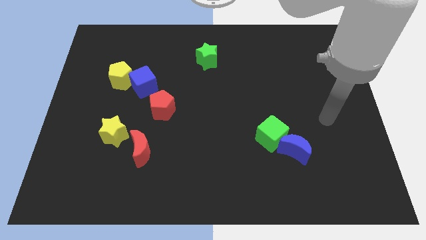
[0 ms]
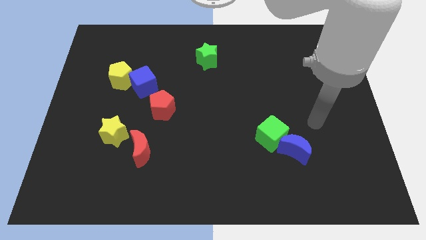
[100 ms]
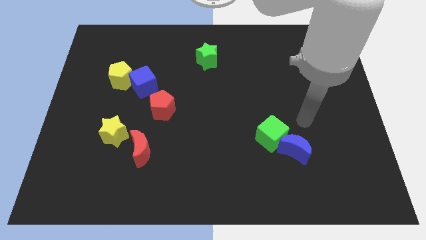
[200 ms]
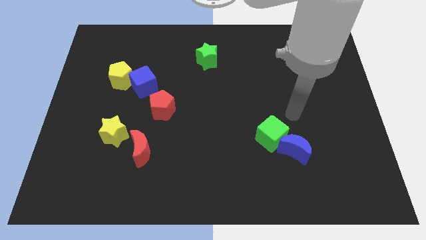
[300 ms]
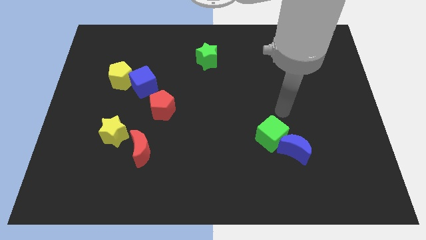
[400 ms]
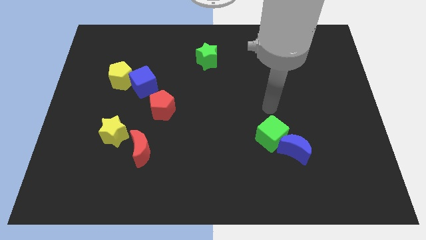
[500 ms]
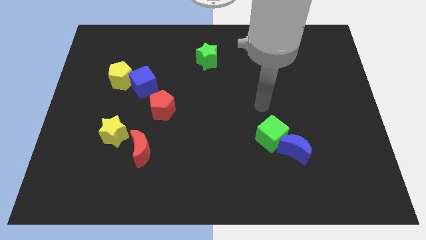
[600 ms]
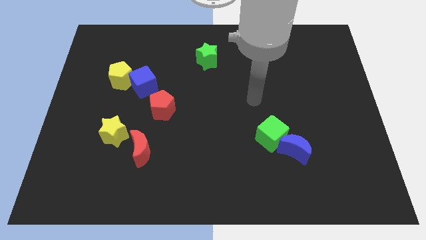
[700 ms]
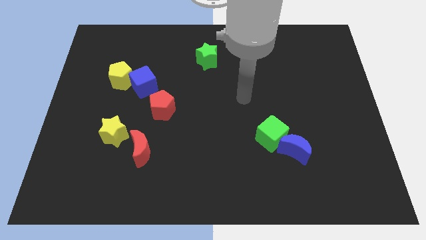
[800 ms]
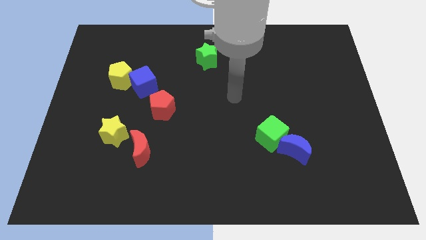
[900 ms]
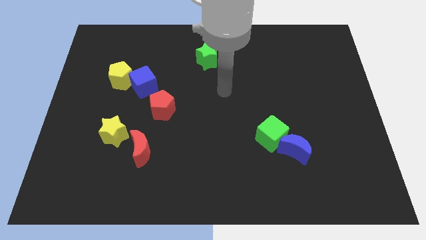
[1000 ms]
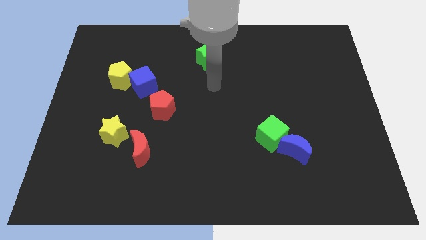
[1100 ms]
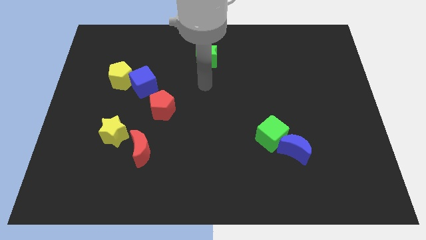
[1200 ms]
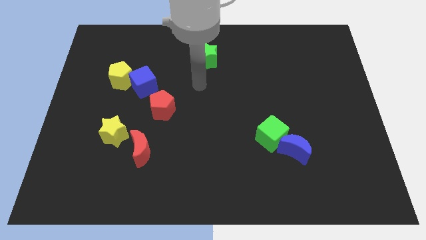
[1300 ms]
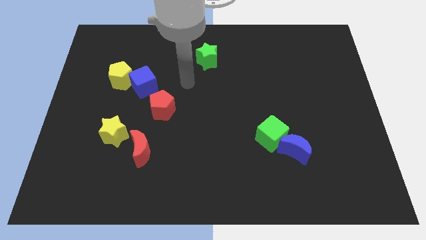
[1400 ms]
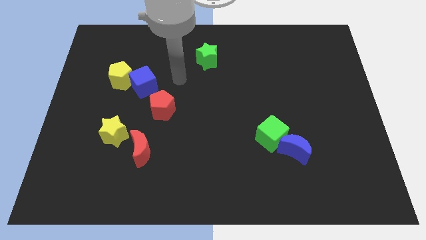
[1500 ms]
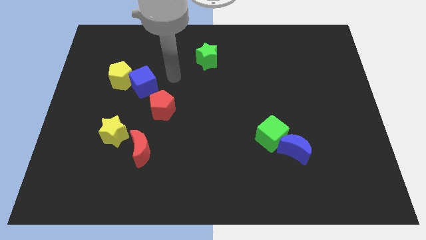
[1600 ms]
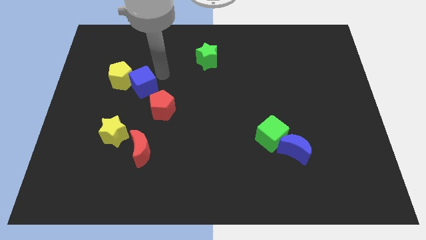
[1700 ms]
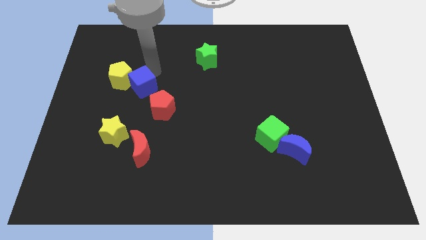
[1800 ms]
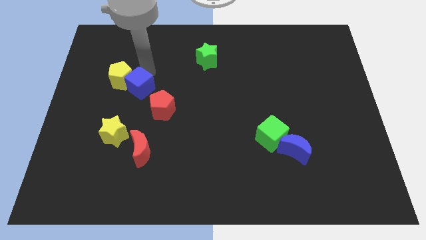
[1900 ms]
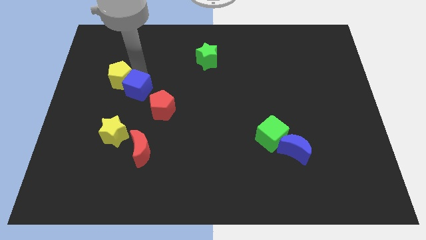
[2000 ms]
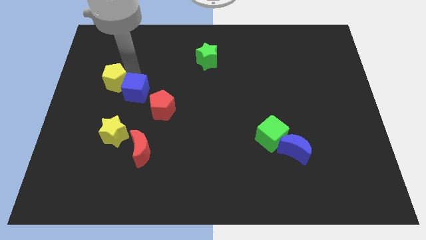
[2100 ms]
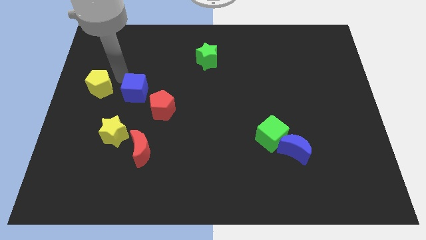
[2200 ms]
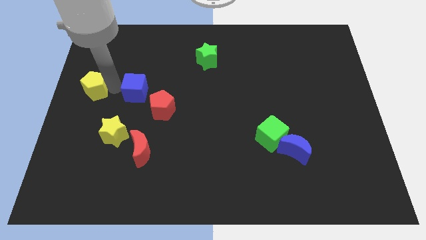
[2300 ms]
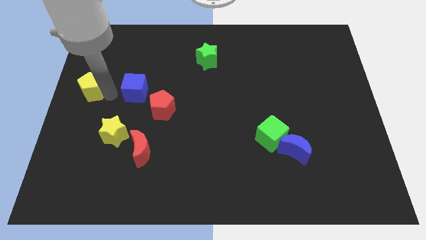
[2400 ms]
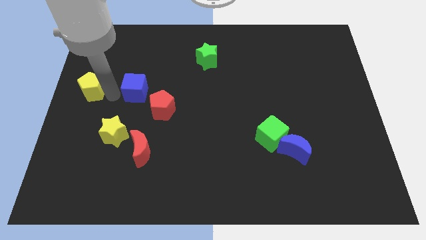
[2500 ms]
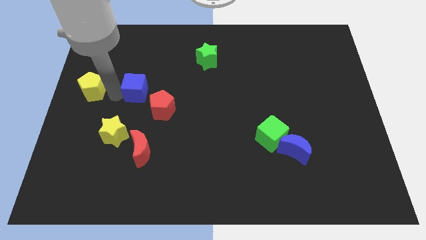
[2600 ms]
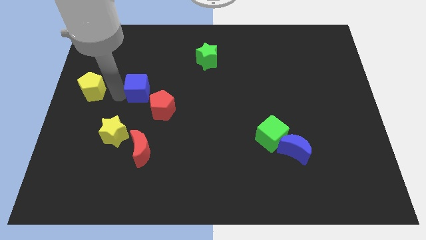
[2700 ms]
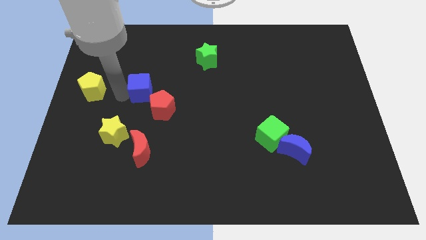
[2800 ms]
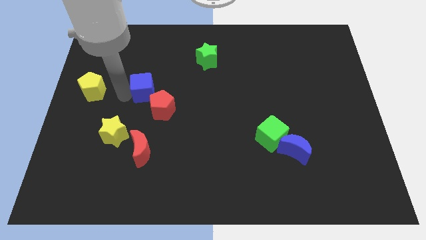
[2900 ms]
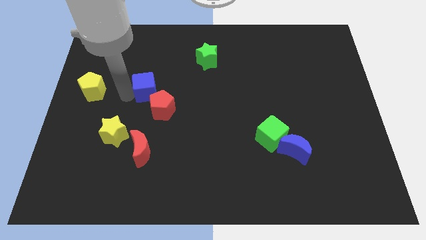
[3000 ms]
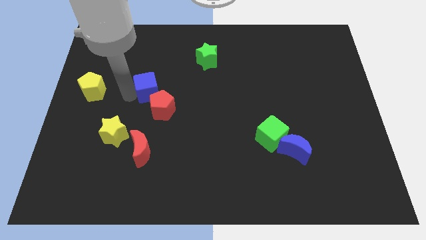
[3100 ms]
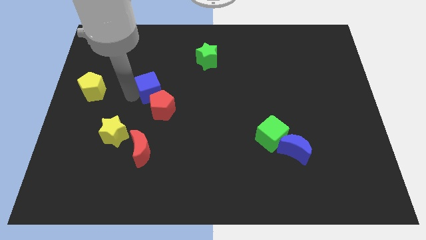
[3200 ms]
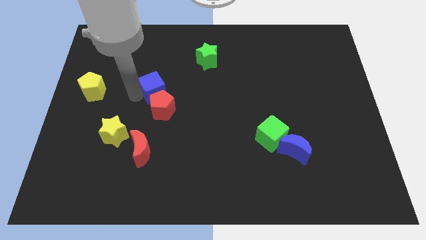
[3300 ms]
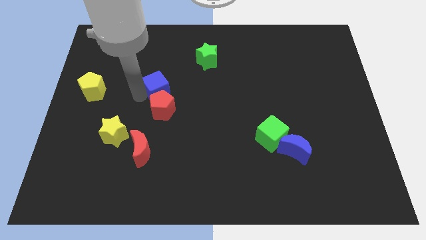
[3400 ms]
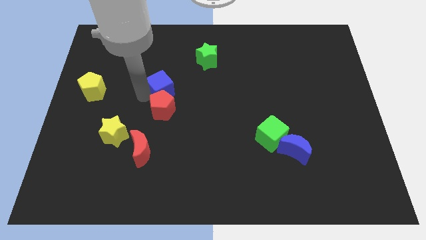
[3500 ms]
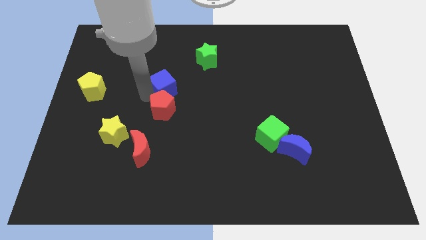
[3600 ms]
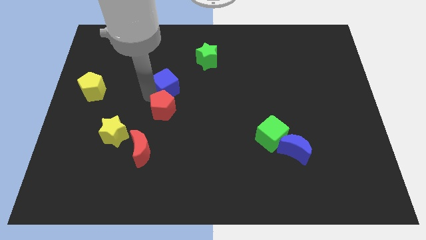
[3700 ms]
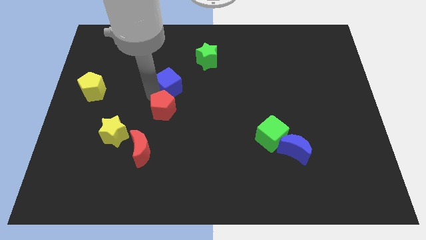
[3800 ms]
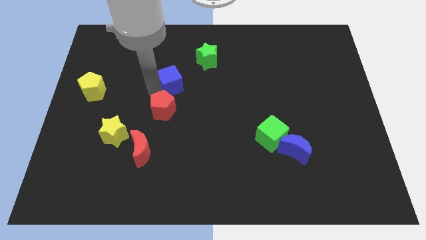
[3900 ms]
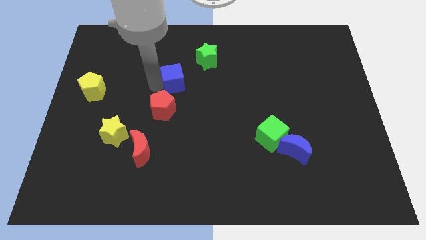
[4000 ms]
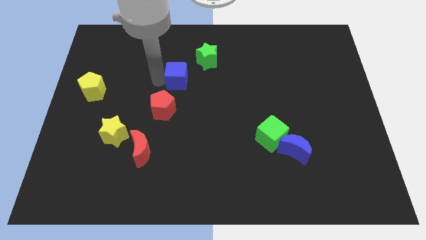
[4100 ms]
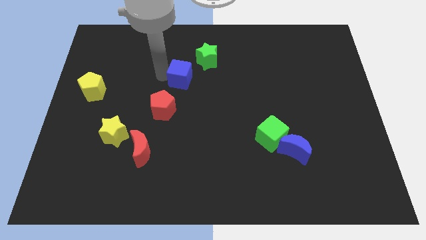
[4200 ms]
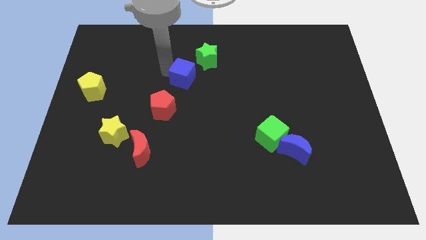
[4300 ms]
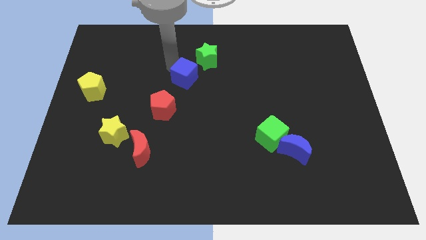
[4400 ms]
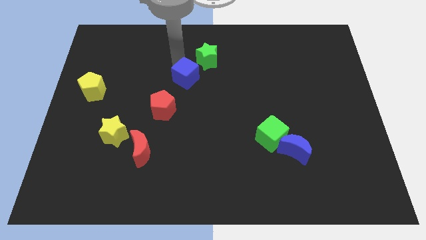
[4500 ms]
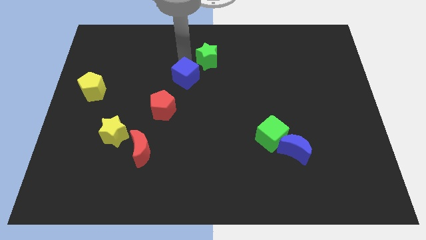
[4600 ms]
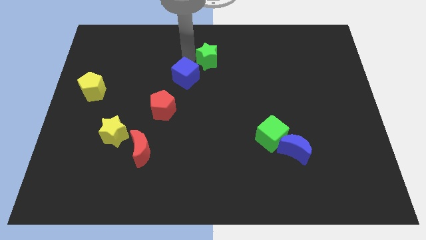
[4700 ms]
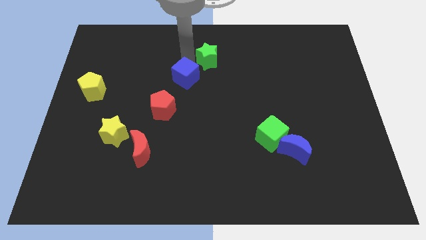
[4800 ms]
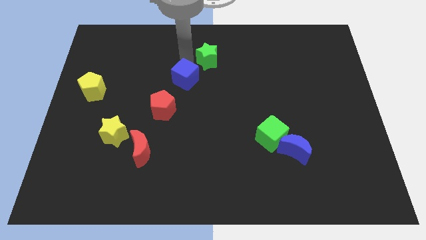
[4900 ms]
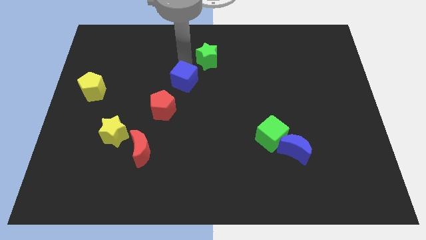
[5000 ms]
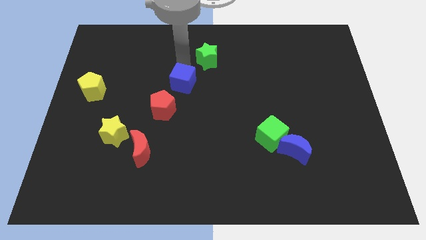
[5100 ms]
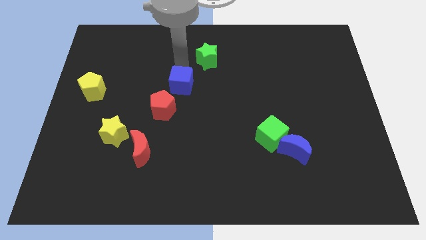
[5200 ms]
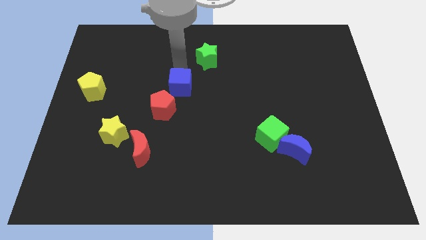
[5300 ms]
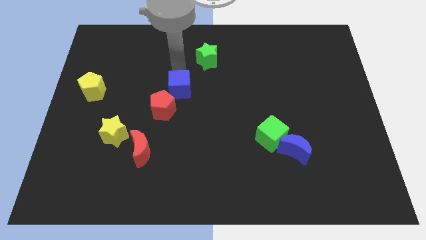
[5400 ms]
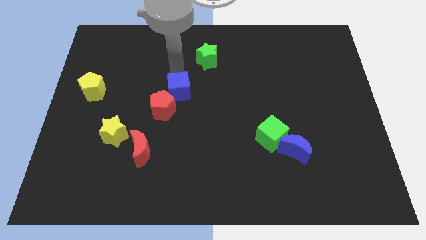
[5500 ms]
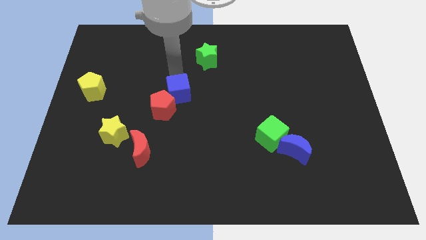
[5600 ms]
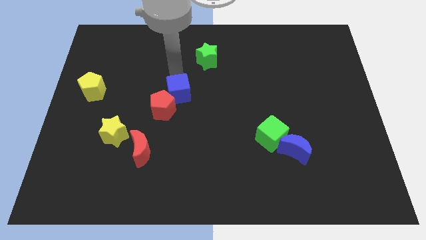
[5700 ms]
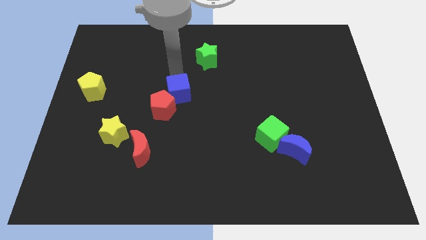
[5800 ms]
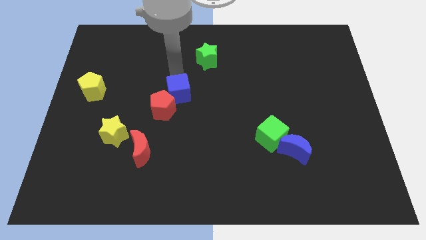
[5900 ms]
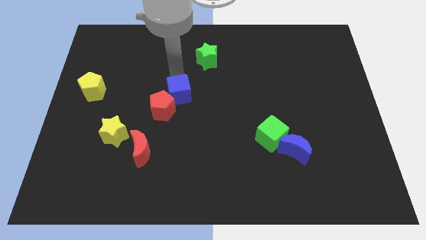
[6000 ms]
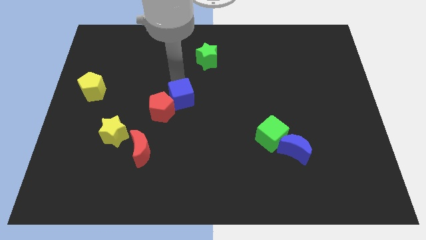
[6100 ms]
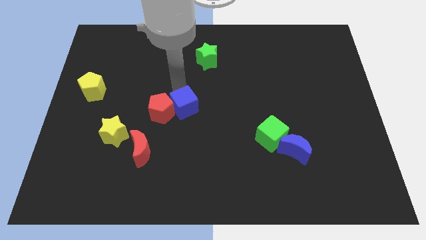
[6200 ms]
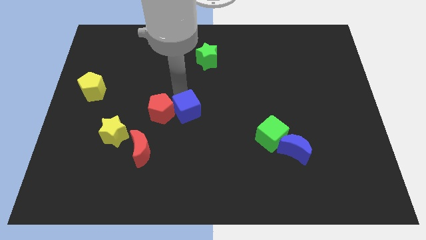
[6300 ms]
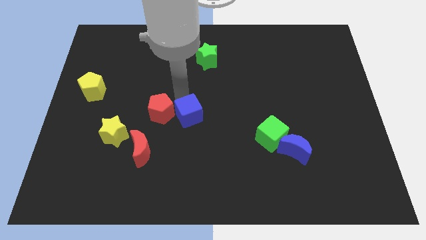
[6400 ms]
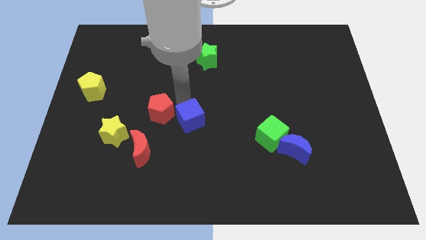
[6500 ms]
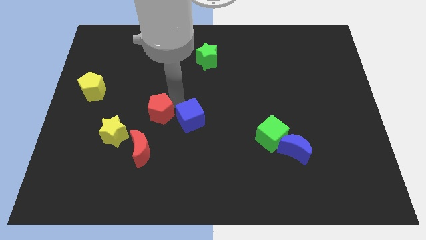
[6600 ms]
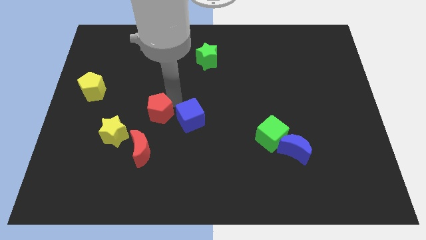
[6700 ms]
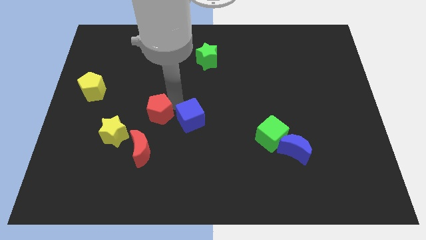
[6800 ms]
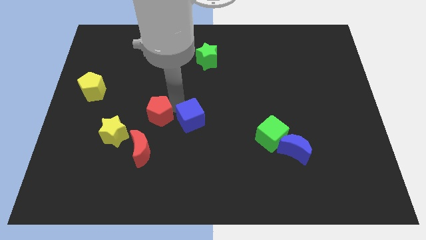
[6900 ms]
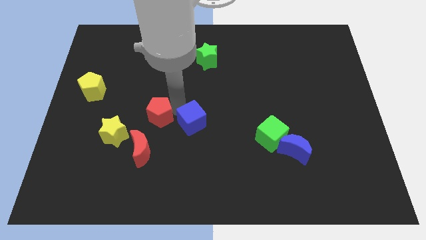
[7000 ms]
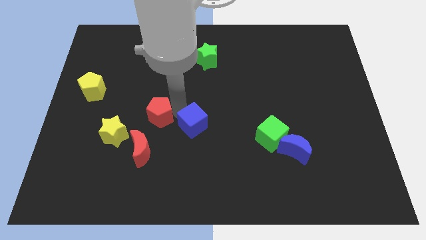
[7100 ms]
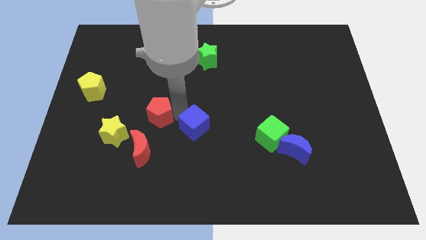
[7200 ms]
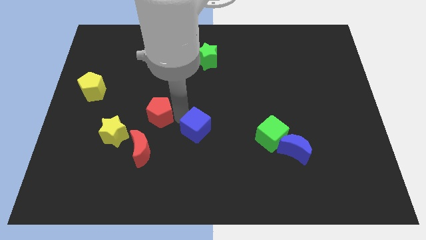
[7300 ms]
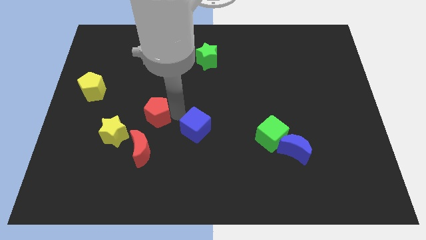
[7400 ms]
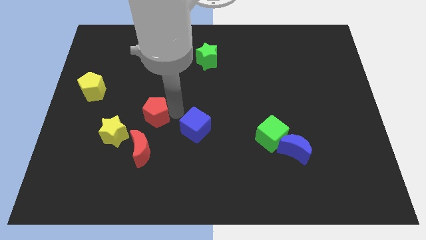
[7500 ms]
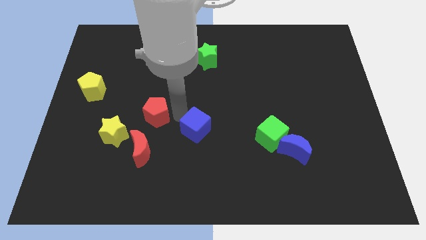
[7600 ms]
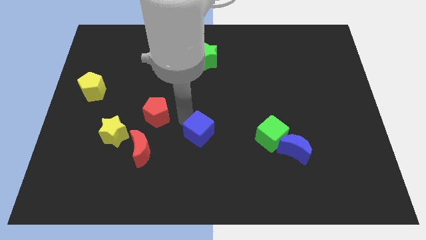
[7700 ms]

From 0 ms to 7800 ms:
slide the blue cube down and then right

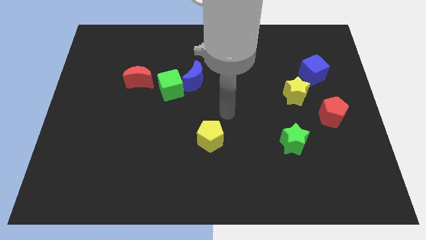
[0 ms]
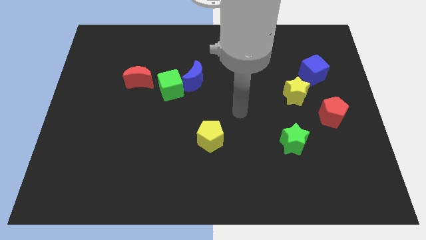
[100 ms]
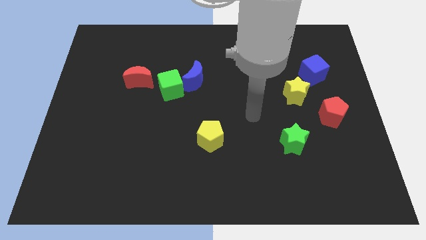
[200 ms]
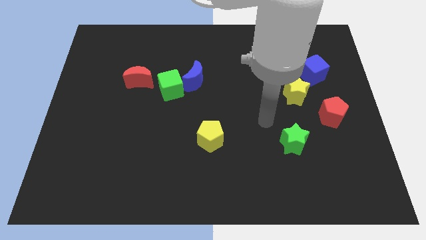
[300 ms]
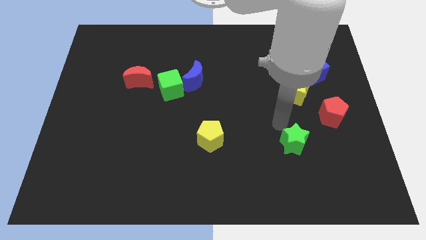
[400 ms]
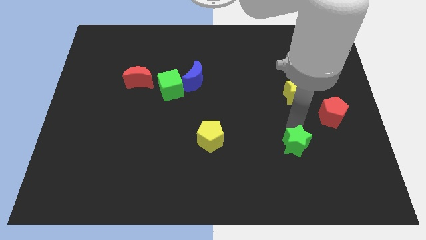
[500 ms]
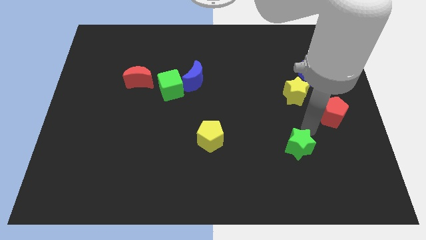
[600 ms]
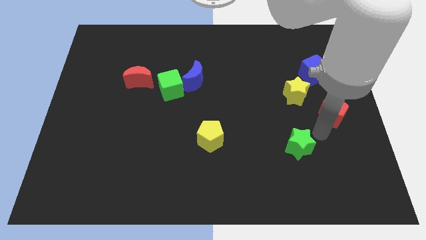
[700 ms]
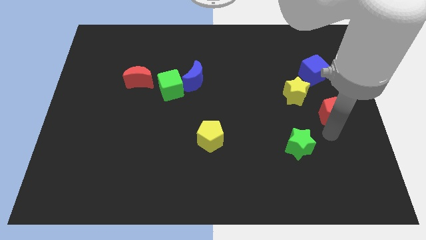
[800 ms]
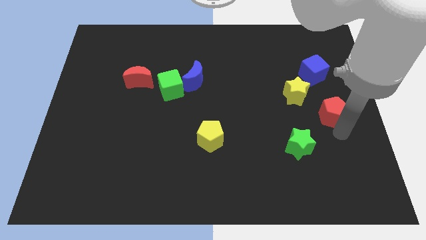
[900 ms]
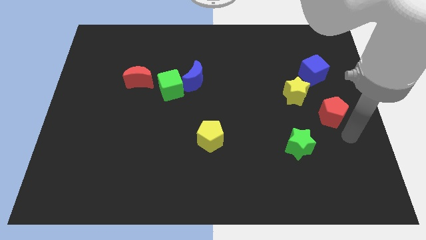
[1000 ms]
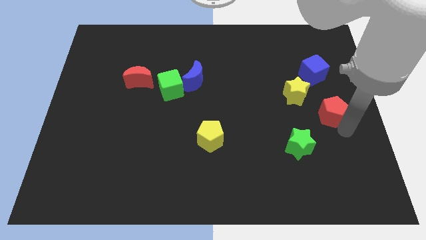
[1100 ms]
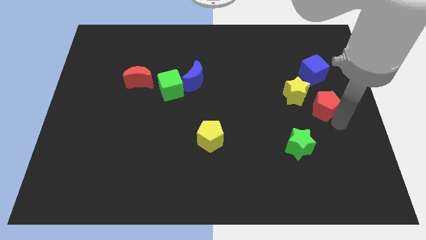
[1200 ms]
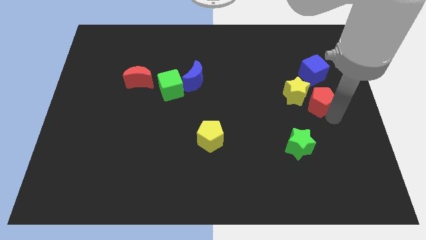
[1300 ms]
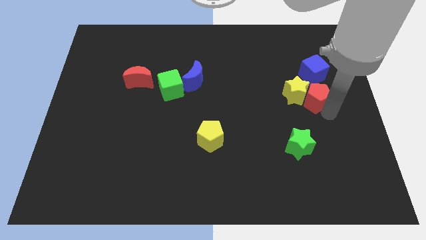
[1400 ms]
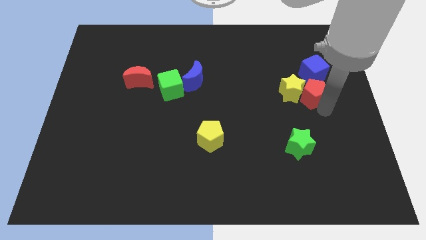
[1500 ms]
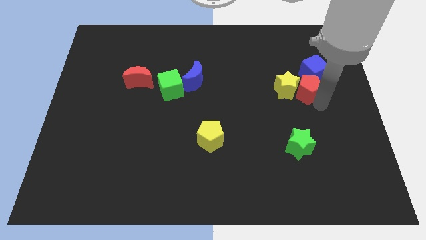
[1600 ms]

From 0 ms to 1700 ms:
move the red pentagon a bit diagonally up and to the left
